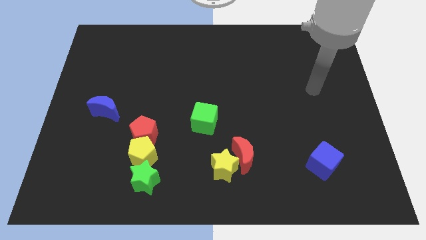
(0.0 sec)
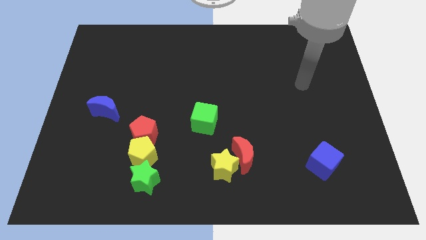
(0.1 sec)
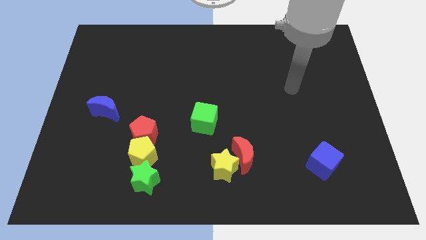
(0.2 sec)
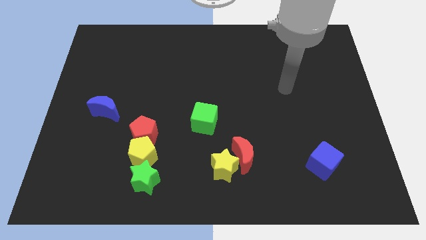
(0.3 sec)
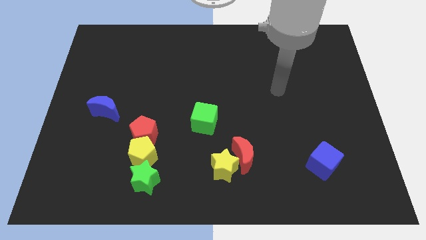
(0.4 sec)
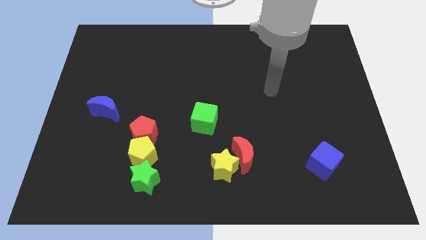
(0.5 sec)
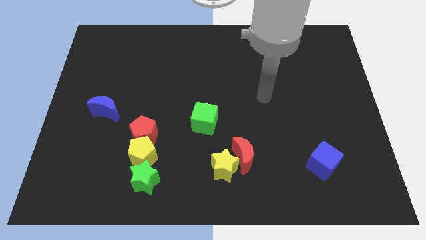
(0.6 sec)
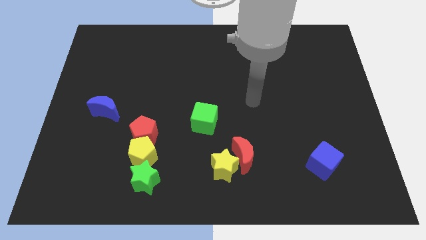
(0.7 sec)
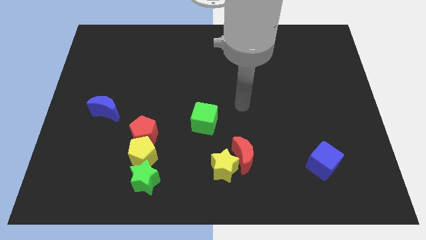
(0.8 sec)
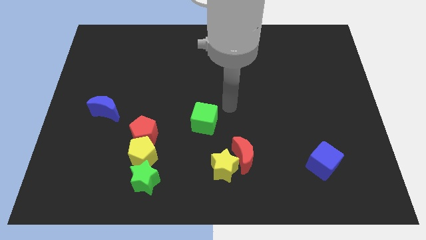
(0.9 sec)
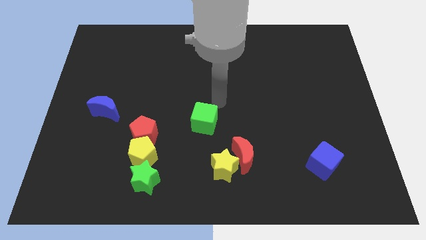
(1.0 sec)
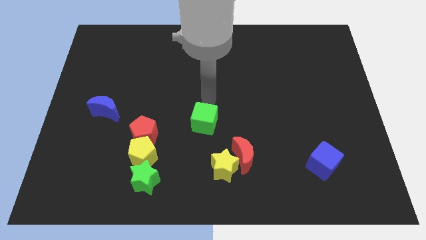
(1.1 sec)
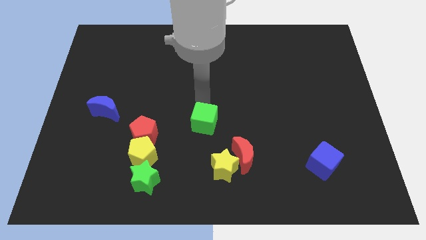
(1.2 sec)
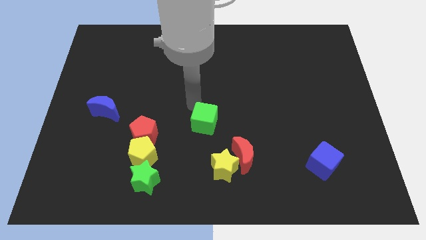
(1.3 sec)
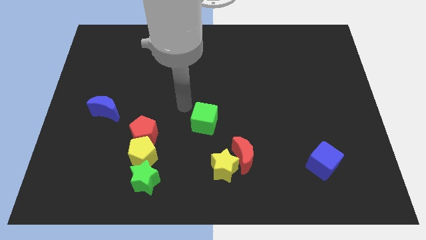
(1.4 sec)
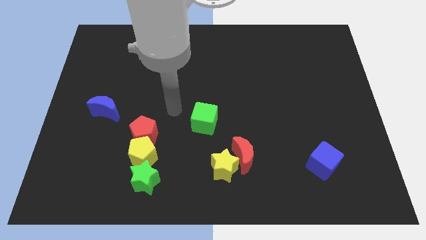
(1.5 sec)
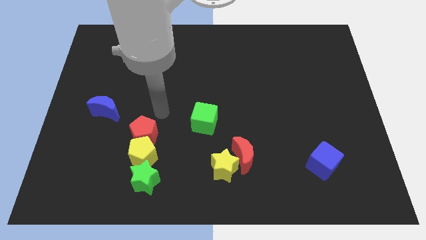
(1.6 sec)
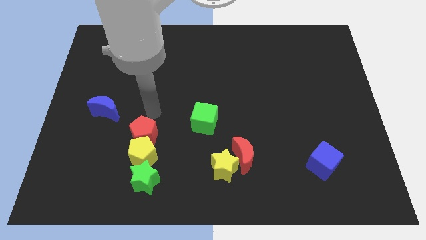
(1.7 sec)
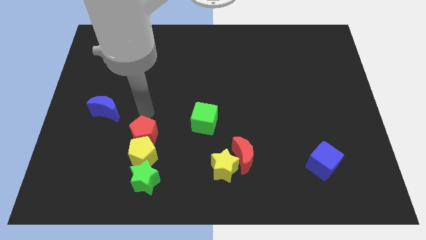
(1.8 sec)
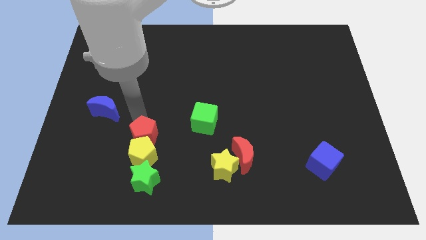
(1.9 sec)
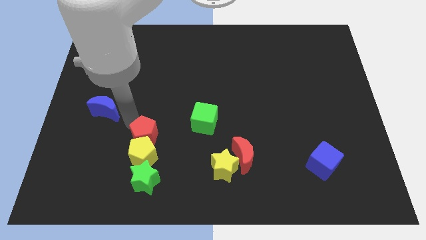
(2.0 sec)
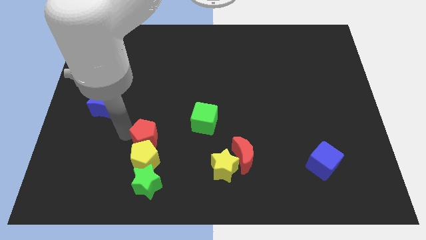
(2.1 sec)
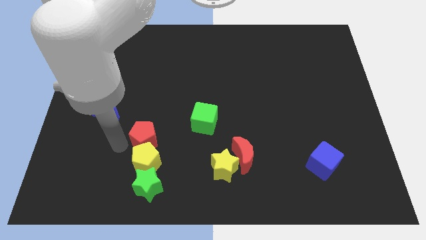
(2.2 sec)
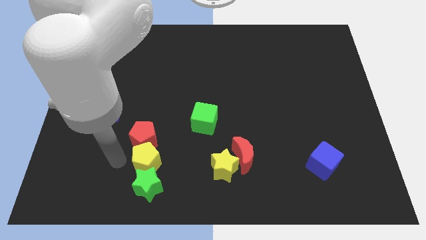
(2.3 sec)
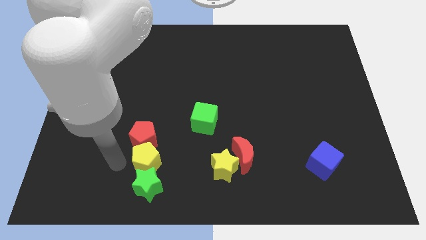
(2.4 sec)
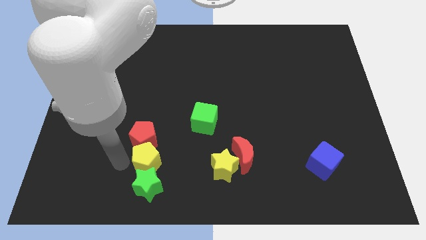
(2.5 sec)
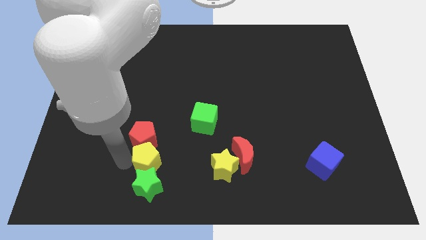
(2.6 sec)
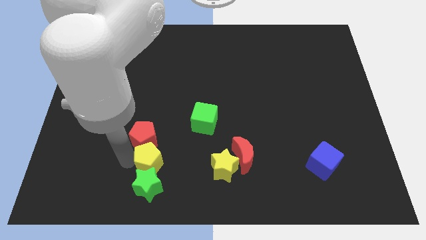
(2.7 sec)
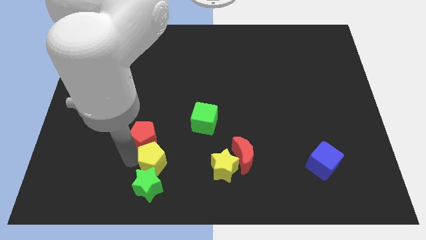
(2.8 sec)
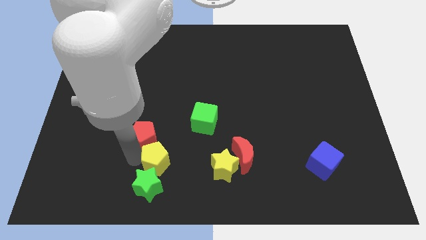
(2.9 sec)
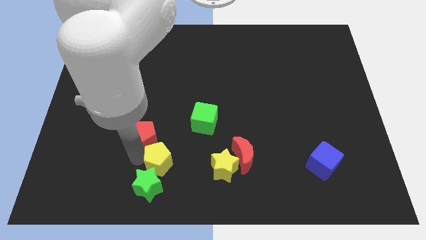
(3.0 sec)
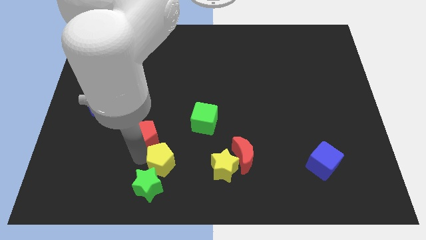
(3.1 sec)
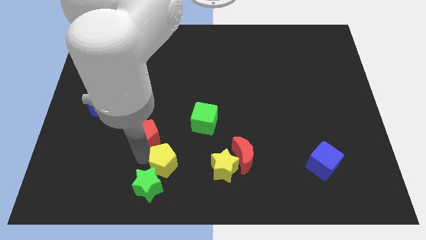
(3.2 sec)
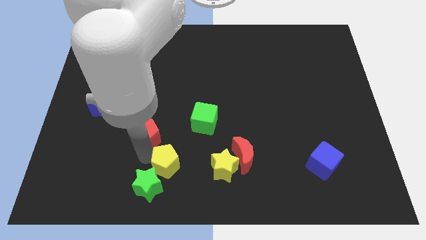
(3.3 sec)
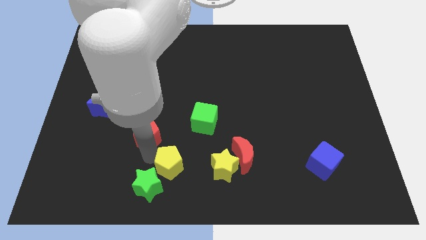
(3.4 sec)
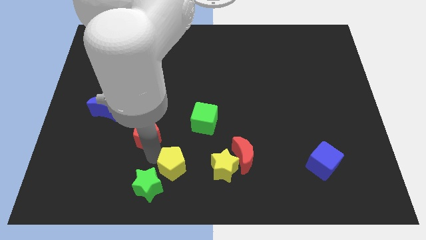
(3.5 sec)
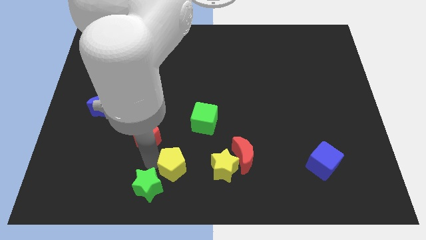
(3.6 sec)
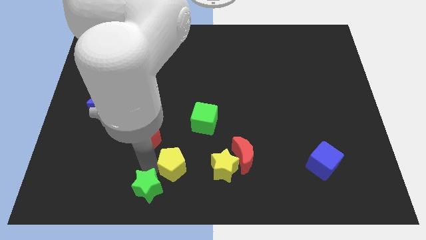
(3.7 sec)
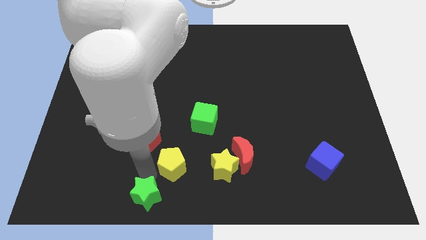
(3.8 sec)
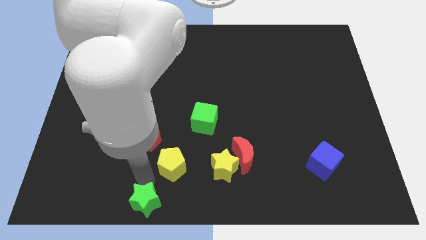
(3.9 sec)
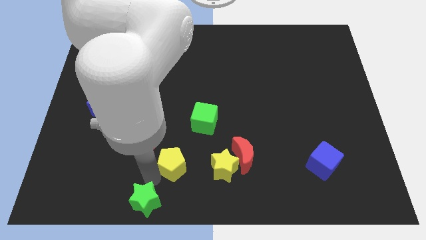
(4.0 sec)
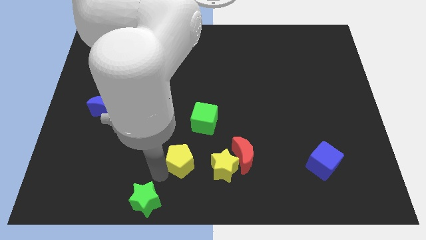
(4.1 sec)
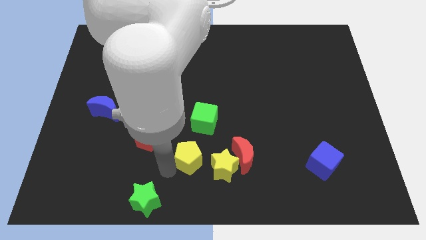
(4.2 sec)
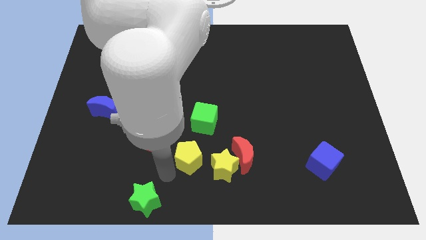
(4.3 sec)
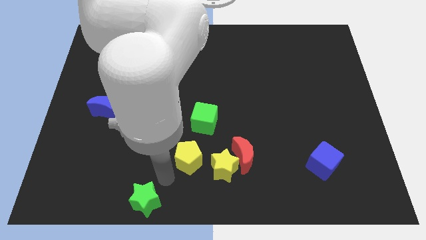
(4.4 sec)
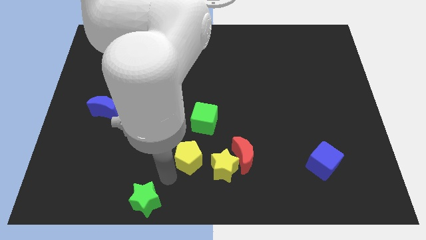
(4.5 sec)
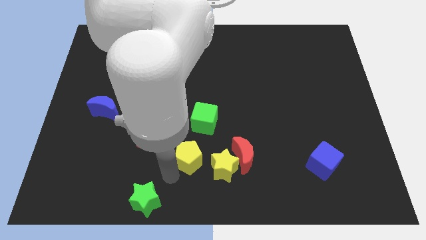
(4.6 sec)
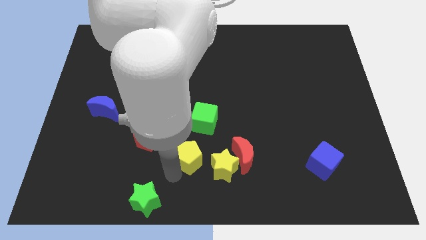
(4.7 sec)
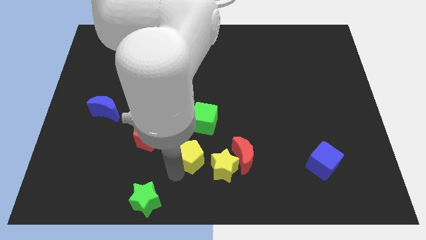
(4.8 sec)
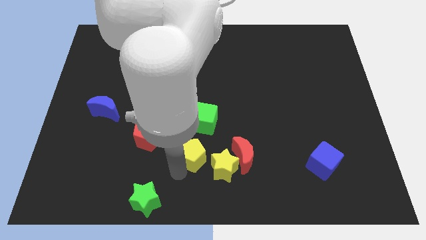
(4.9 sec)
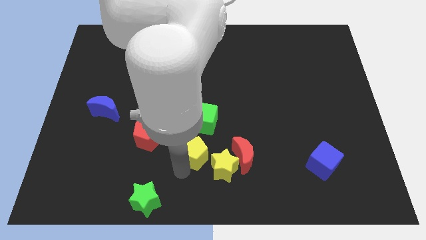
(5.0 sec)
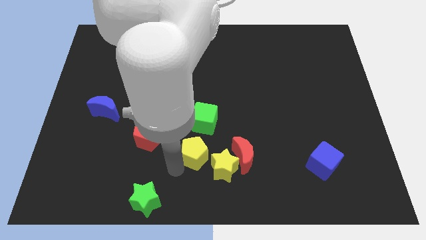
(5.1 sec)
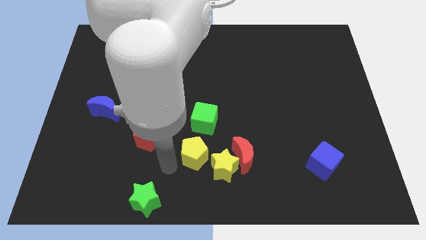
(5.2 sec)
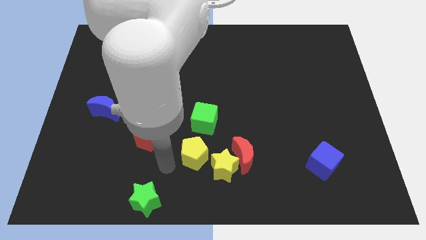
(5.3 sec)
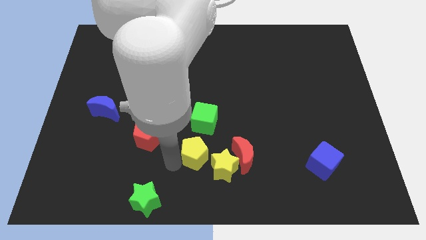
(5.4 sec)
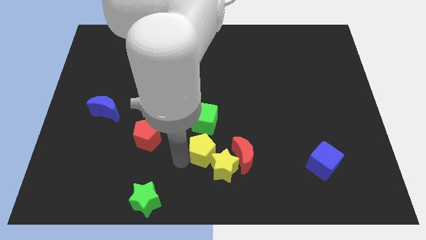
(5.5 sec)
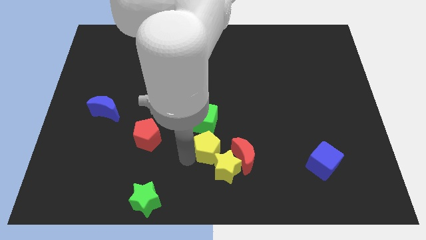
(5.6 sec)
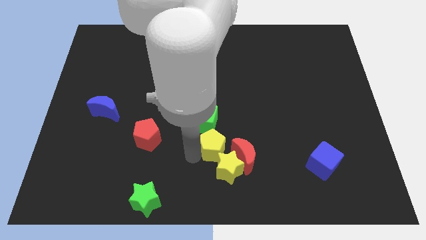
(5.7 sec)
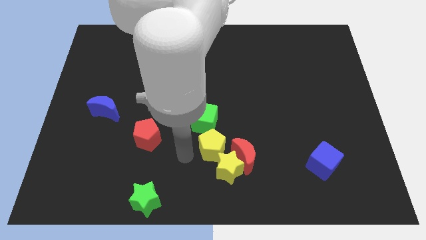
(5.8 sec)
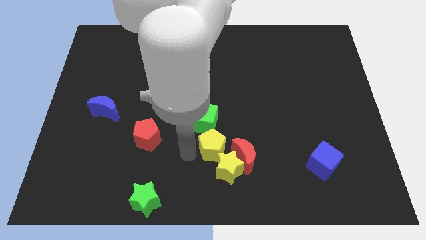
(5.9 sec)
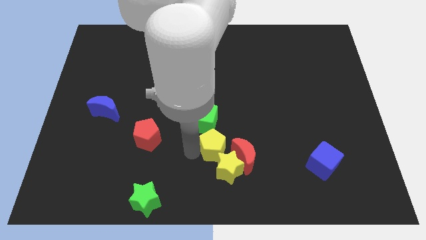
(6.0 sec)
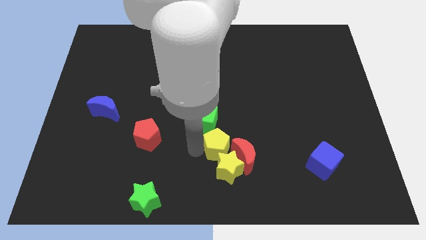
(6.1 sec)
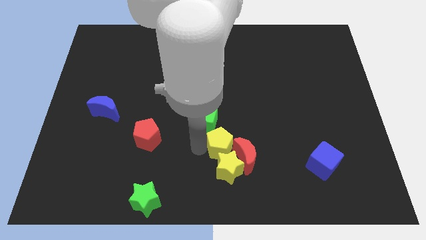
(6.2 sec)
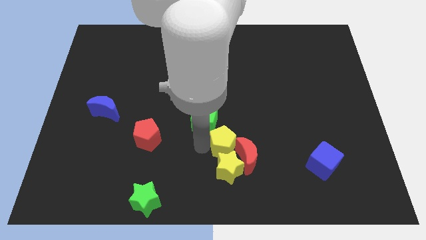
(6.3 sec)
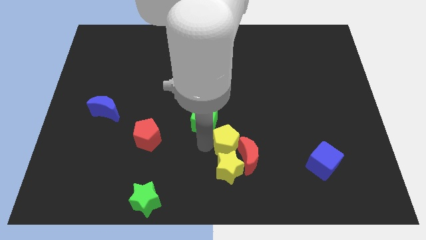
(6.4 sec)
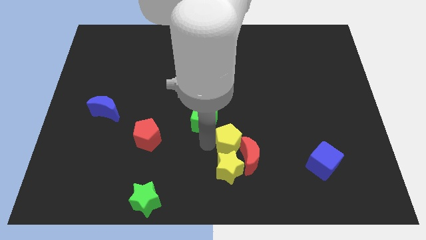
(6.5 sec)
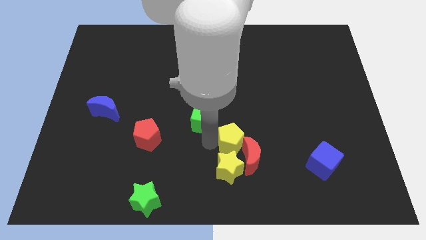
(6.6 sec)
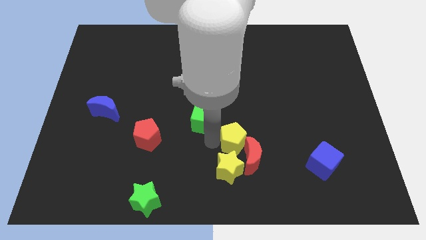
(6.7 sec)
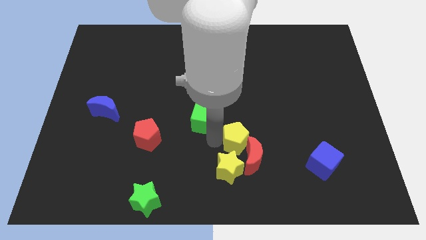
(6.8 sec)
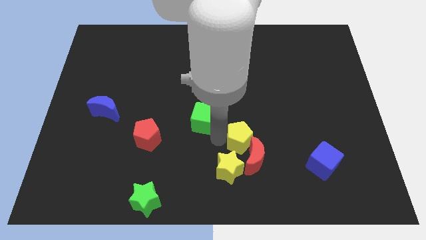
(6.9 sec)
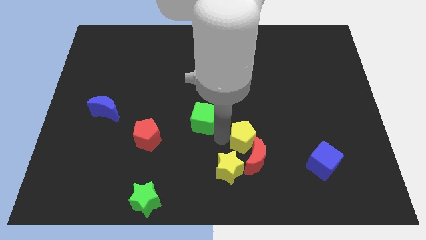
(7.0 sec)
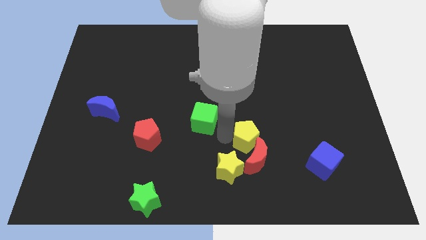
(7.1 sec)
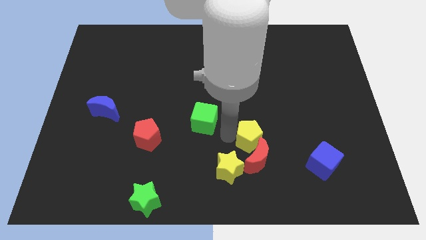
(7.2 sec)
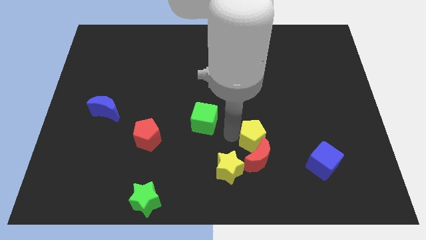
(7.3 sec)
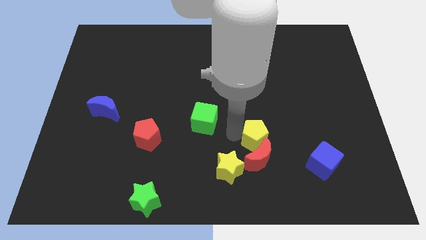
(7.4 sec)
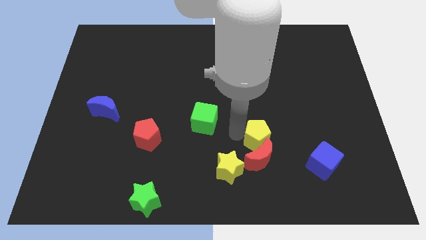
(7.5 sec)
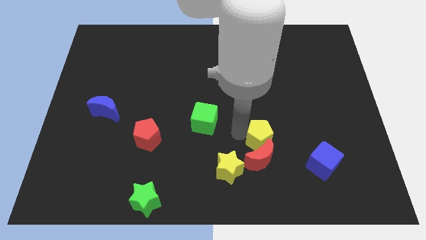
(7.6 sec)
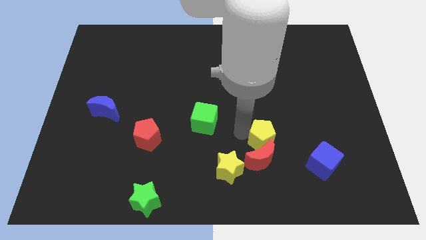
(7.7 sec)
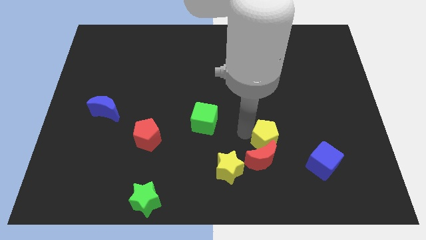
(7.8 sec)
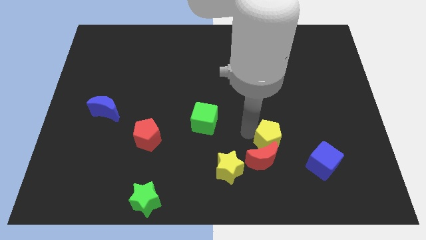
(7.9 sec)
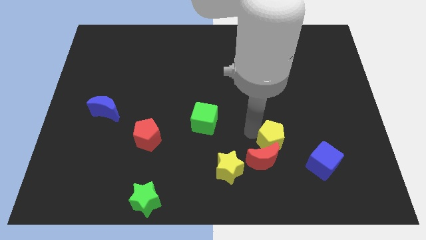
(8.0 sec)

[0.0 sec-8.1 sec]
push the yellow pentagon to the top left side of the blue cube
